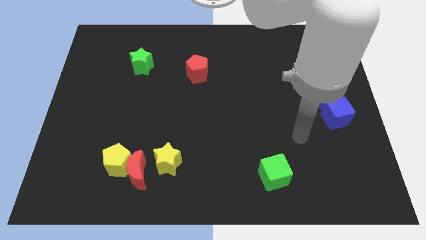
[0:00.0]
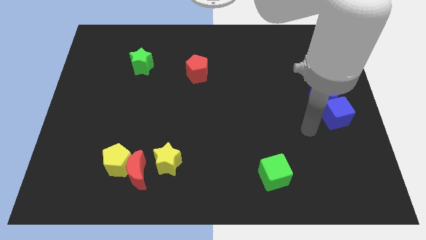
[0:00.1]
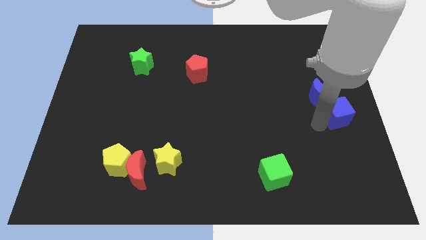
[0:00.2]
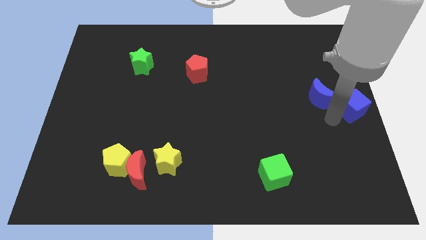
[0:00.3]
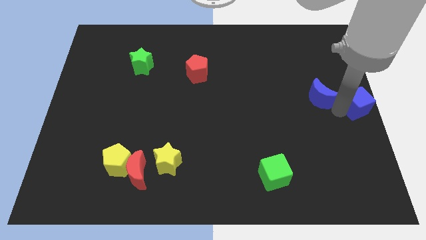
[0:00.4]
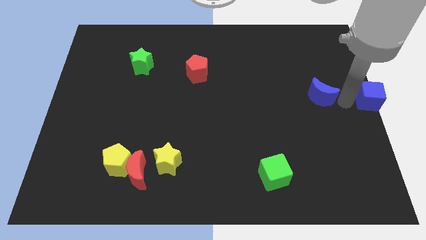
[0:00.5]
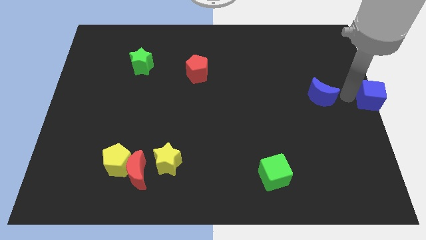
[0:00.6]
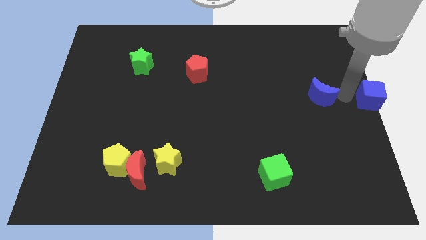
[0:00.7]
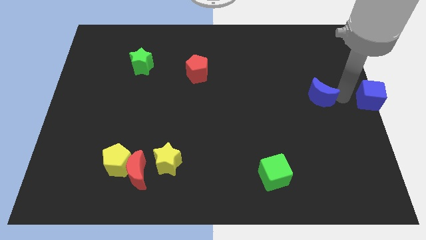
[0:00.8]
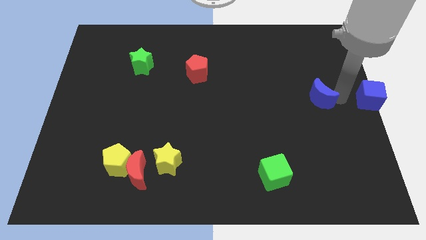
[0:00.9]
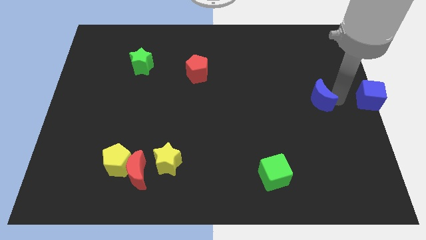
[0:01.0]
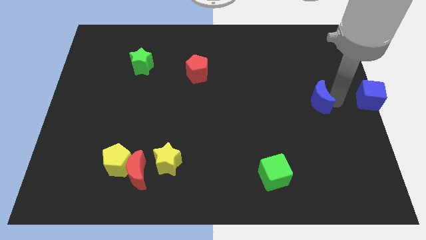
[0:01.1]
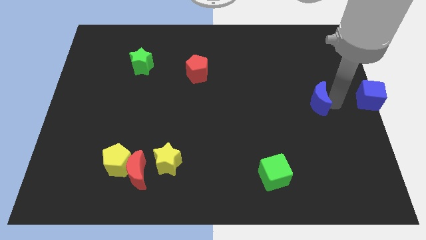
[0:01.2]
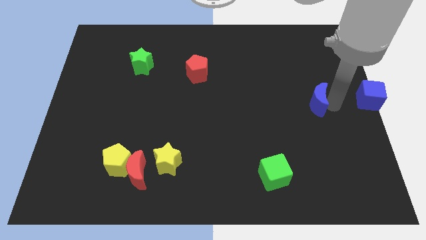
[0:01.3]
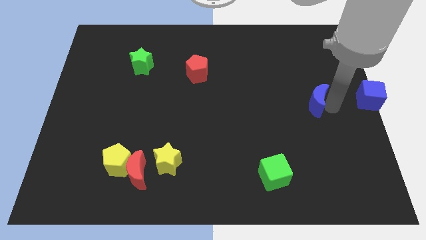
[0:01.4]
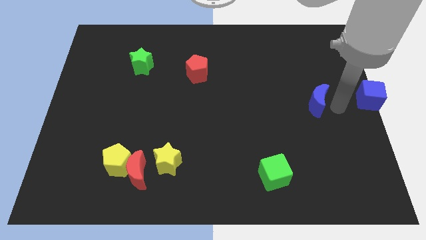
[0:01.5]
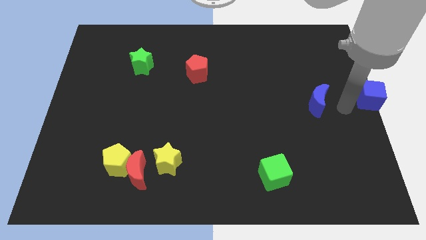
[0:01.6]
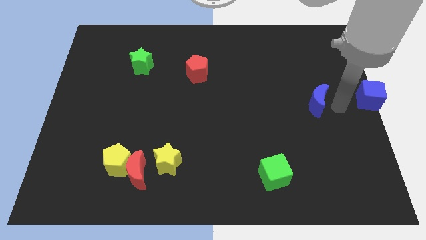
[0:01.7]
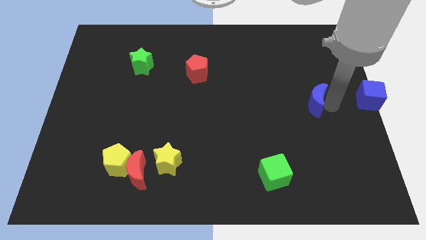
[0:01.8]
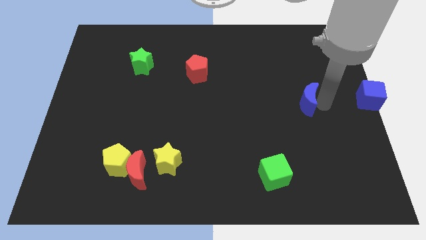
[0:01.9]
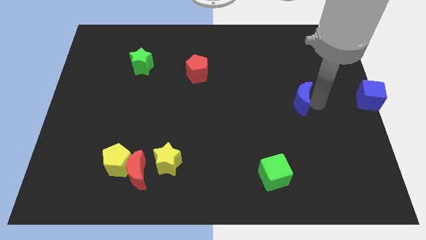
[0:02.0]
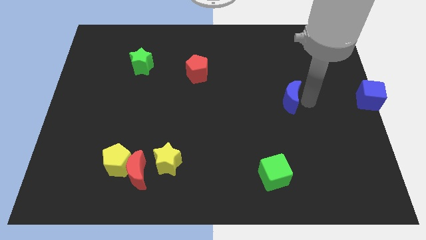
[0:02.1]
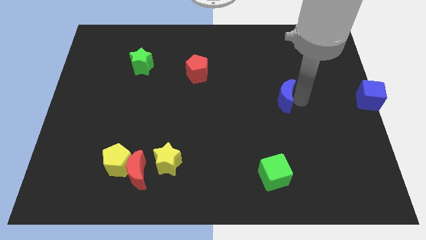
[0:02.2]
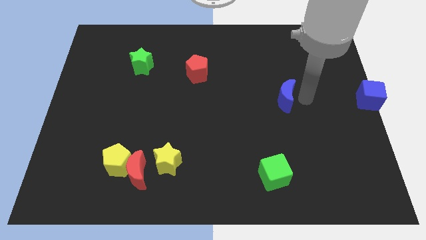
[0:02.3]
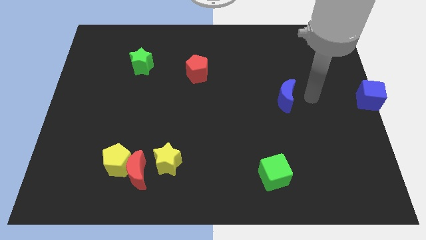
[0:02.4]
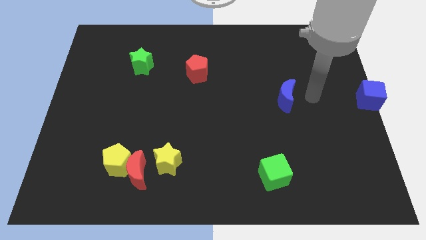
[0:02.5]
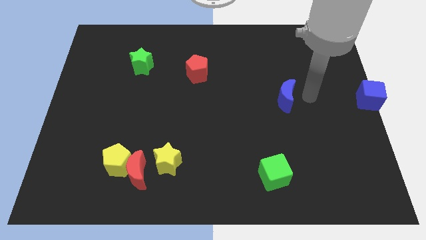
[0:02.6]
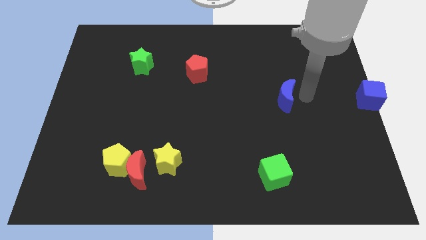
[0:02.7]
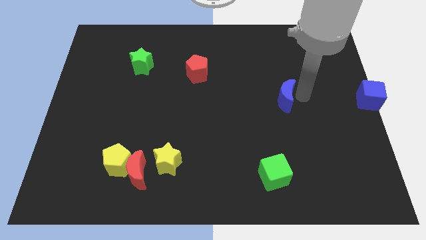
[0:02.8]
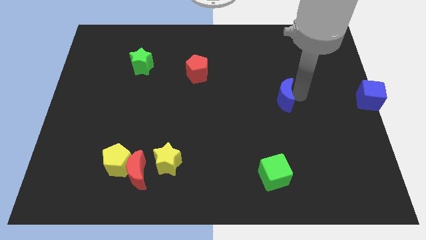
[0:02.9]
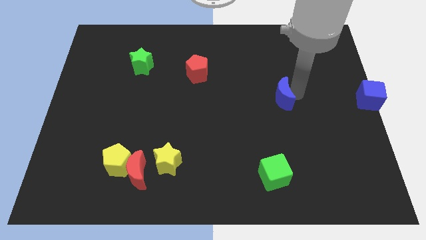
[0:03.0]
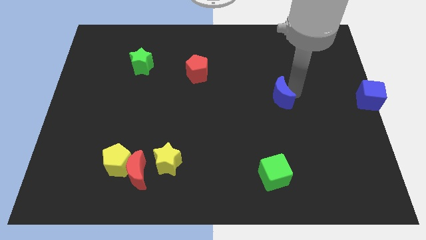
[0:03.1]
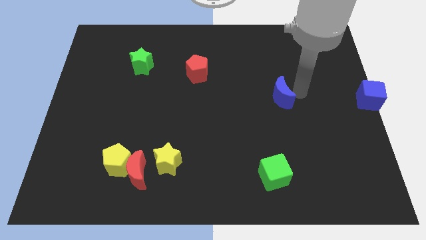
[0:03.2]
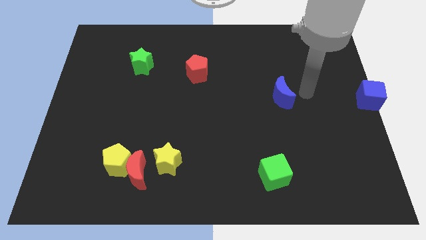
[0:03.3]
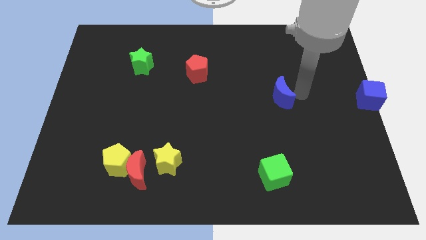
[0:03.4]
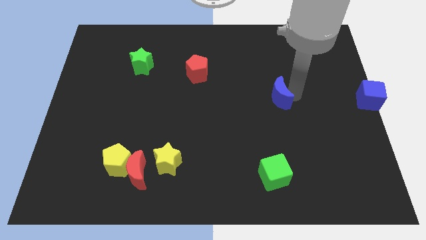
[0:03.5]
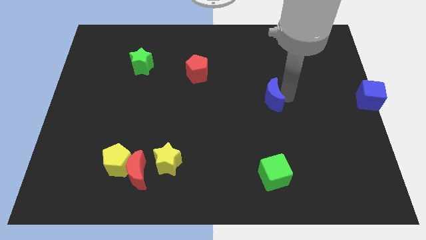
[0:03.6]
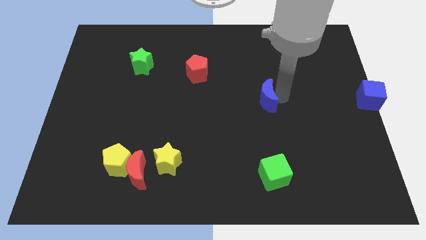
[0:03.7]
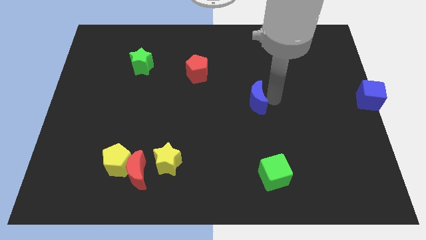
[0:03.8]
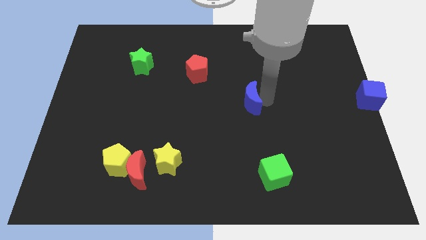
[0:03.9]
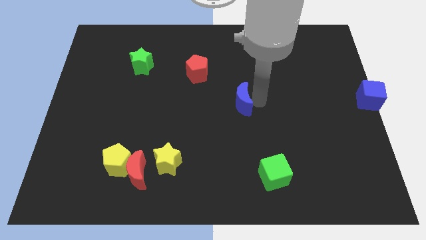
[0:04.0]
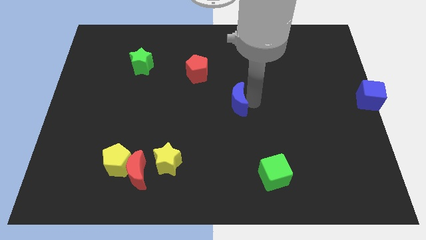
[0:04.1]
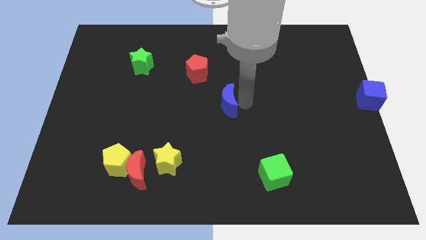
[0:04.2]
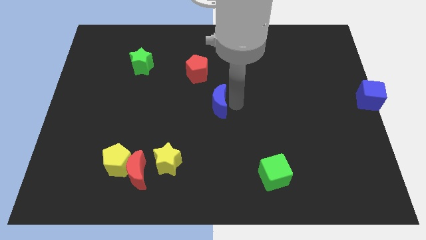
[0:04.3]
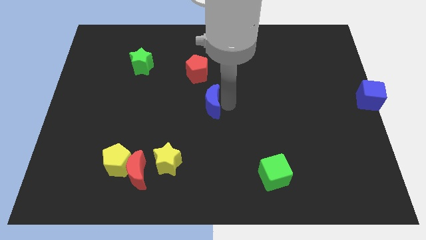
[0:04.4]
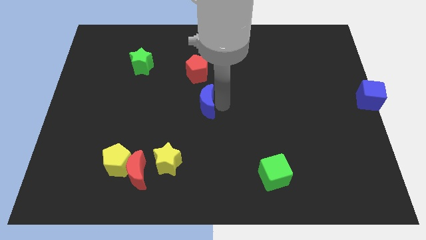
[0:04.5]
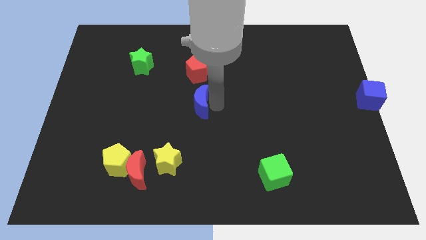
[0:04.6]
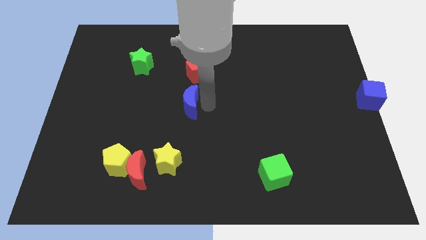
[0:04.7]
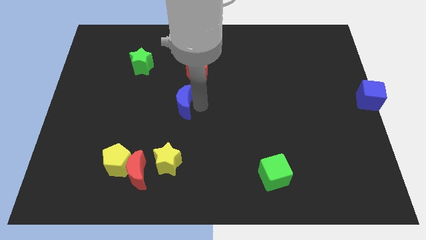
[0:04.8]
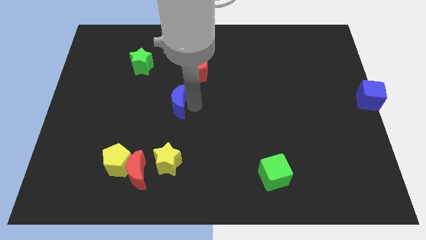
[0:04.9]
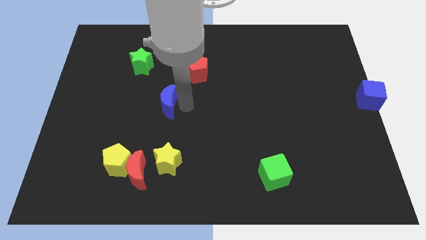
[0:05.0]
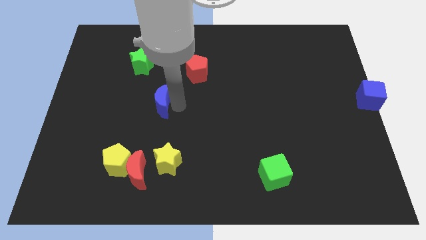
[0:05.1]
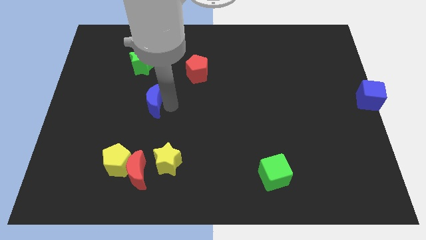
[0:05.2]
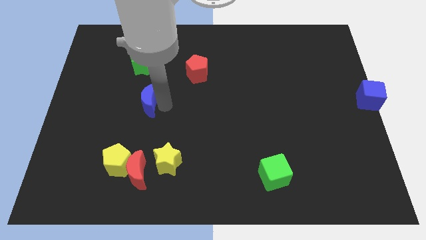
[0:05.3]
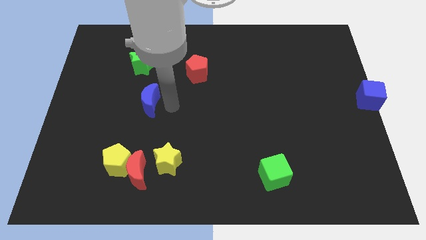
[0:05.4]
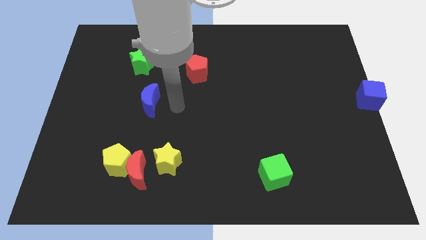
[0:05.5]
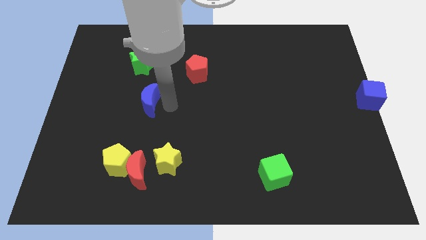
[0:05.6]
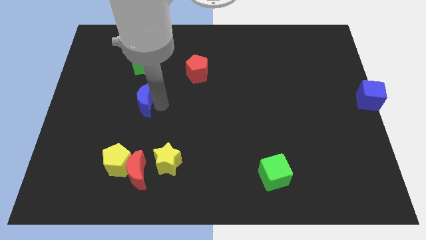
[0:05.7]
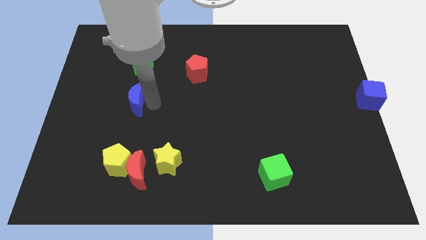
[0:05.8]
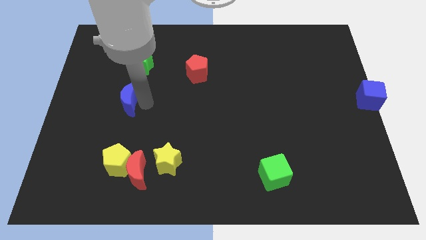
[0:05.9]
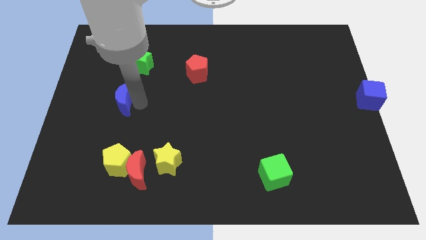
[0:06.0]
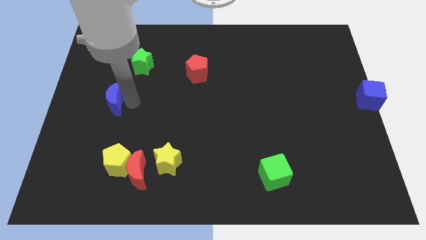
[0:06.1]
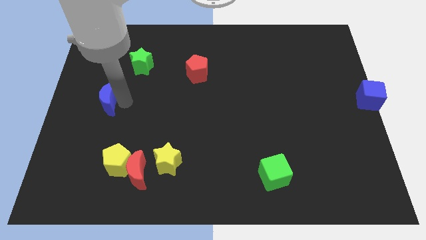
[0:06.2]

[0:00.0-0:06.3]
move the blue moon to the left side

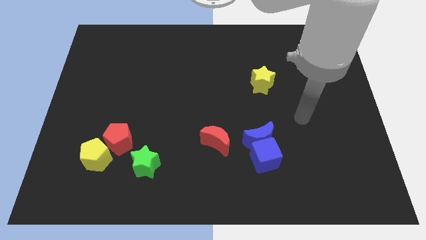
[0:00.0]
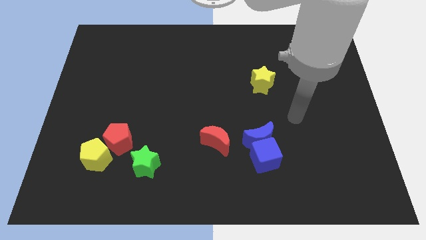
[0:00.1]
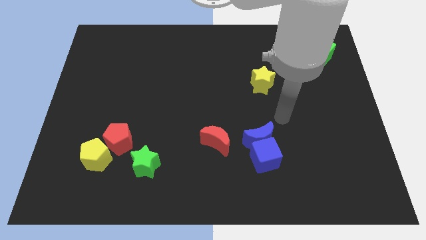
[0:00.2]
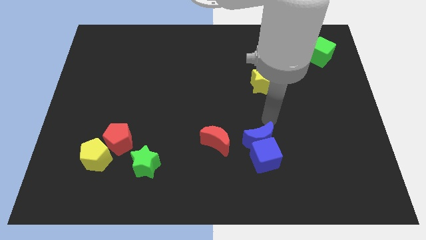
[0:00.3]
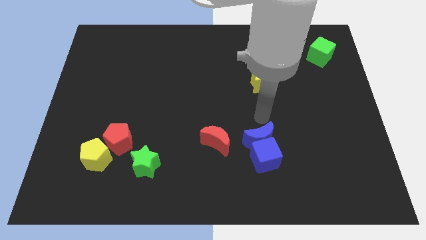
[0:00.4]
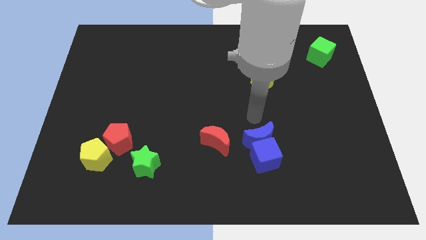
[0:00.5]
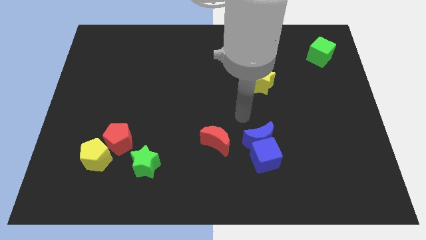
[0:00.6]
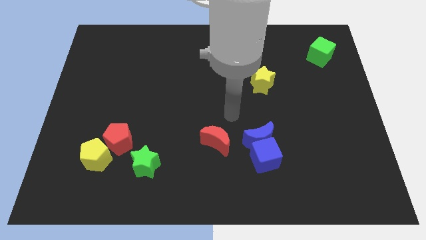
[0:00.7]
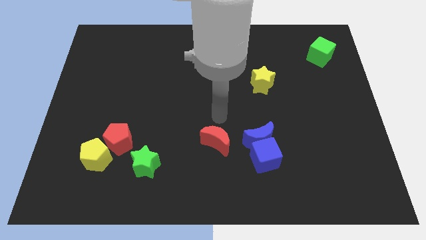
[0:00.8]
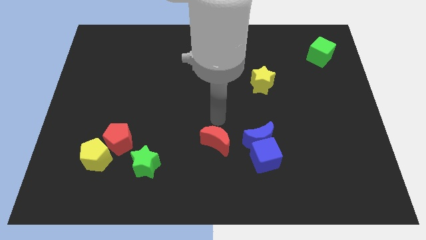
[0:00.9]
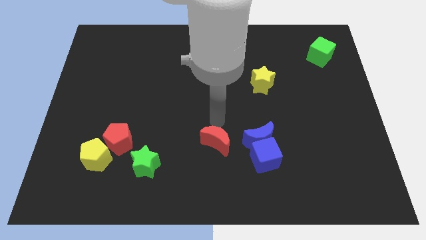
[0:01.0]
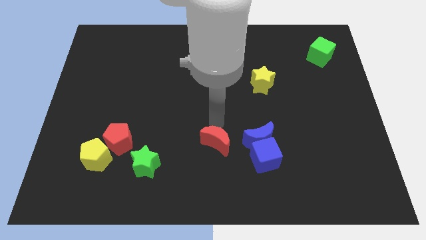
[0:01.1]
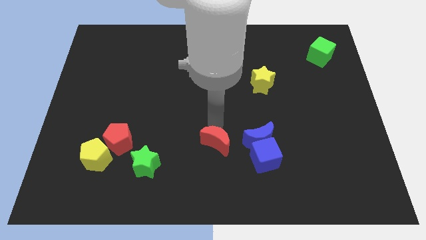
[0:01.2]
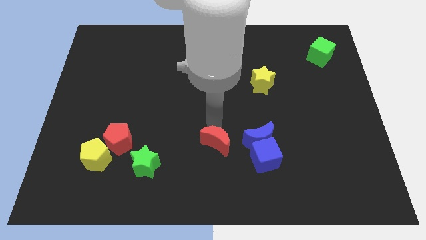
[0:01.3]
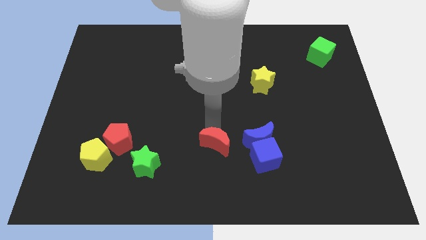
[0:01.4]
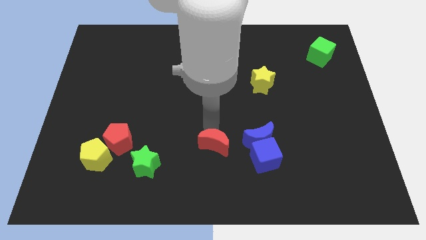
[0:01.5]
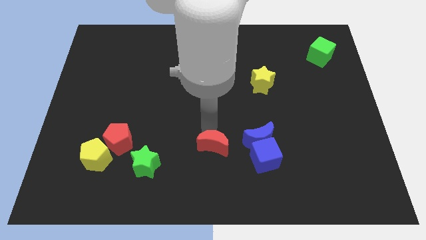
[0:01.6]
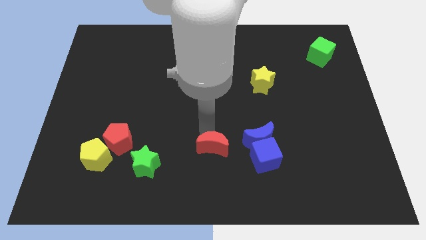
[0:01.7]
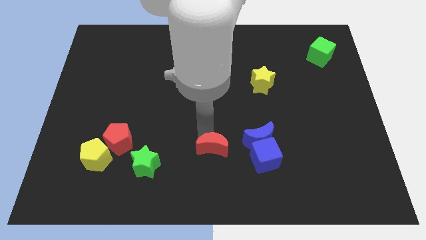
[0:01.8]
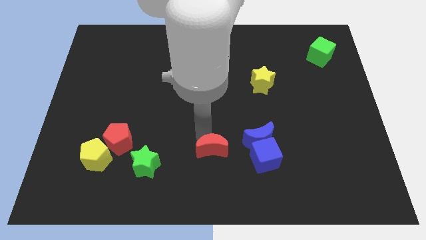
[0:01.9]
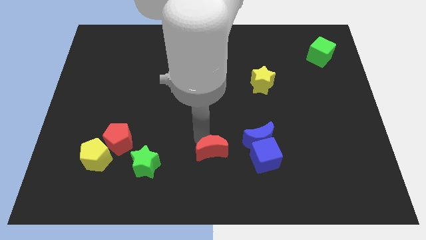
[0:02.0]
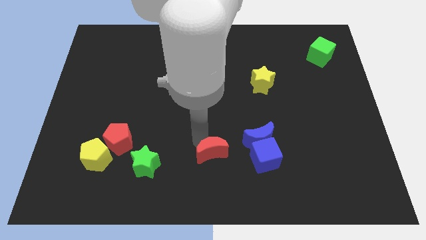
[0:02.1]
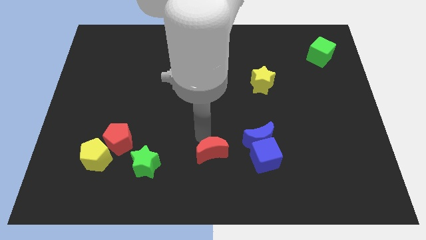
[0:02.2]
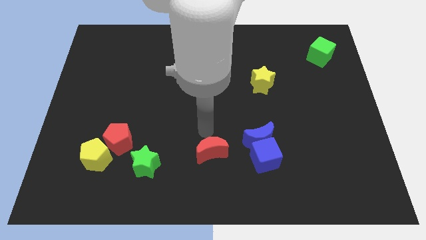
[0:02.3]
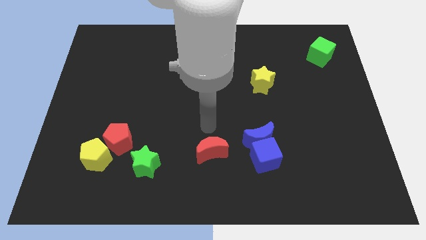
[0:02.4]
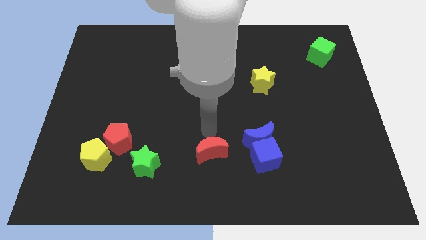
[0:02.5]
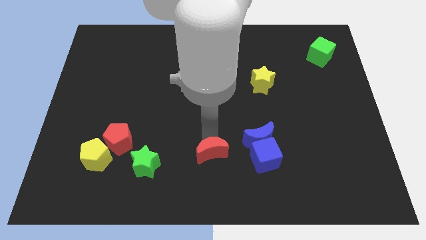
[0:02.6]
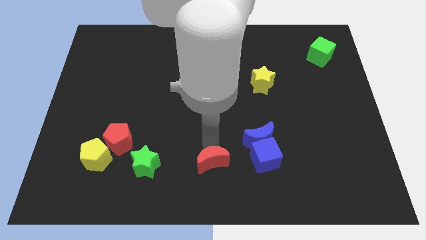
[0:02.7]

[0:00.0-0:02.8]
slide the red moon to the bottom
